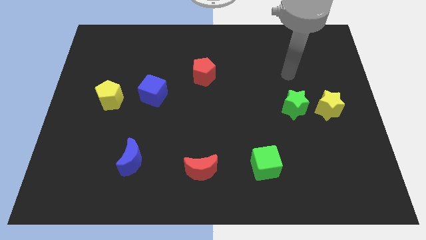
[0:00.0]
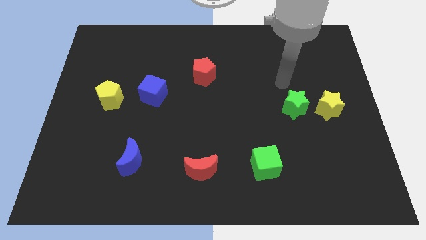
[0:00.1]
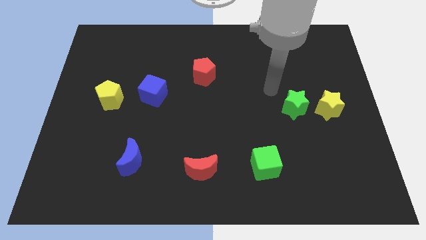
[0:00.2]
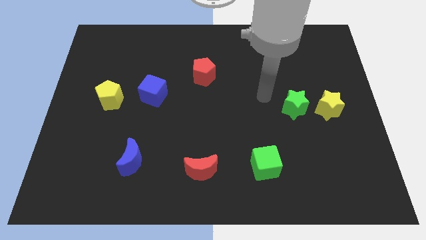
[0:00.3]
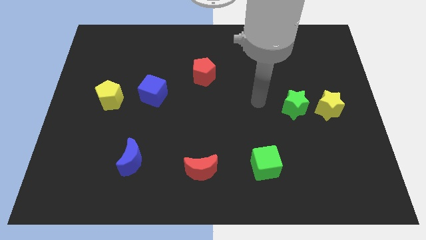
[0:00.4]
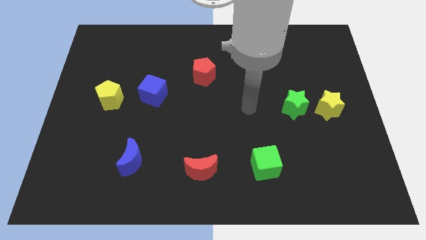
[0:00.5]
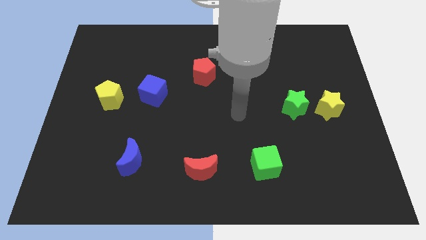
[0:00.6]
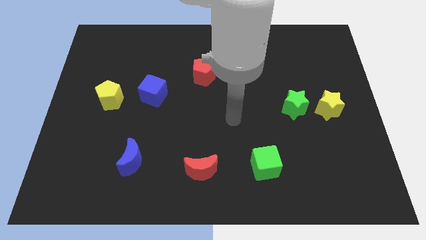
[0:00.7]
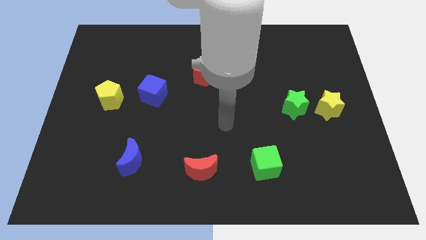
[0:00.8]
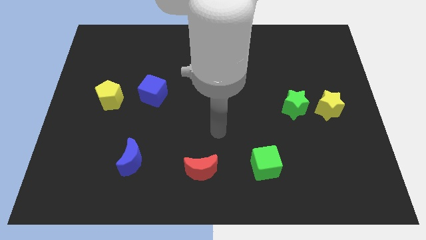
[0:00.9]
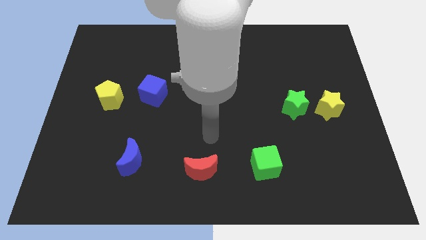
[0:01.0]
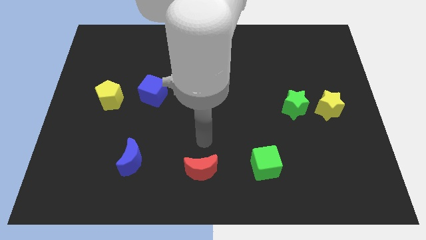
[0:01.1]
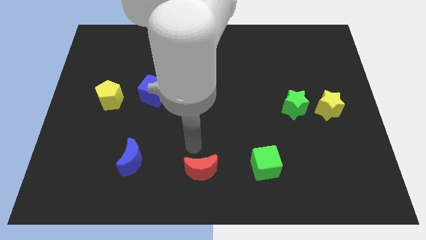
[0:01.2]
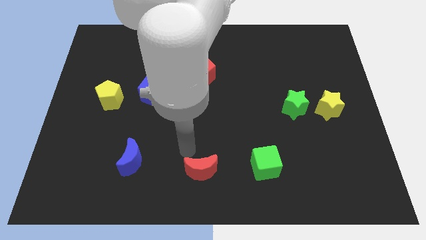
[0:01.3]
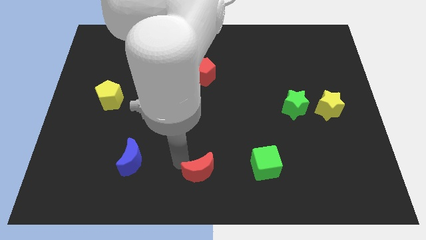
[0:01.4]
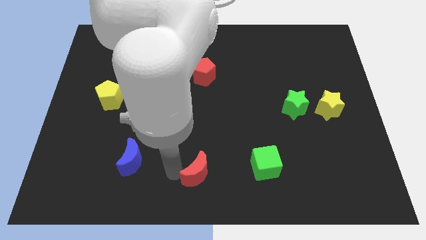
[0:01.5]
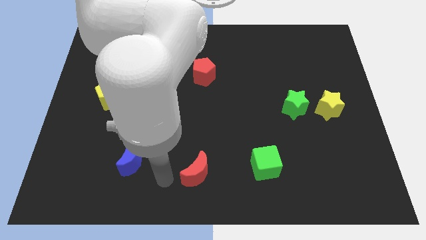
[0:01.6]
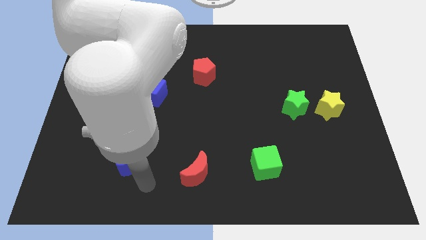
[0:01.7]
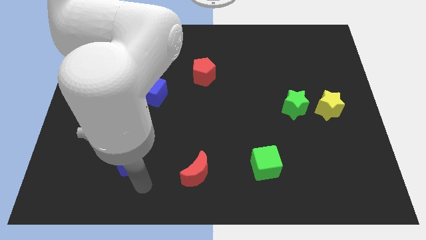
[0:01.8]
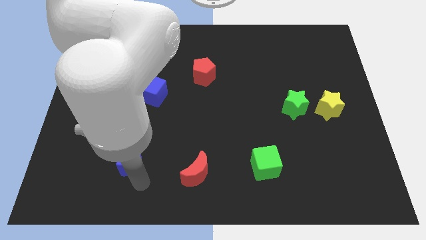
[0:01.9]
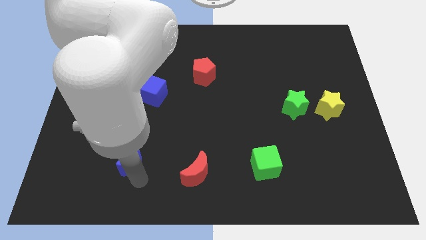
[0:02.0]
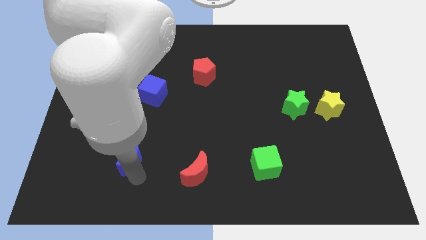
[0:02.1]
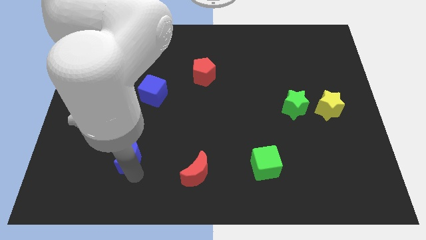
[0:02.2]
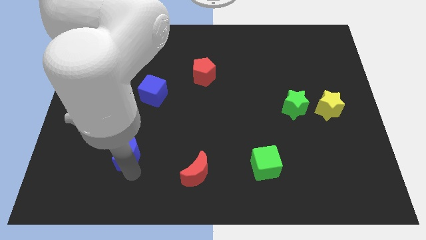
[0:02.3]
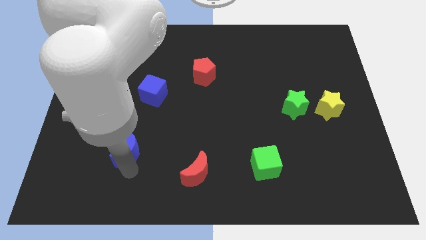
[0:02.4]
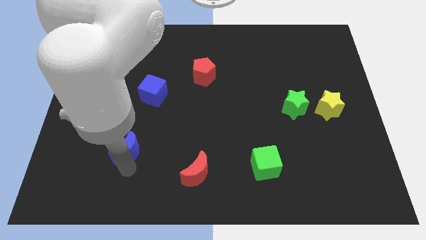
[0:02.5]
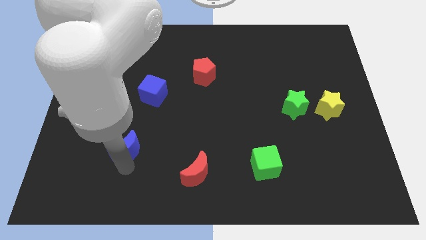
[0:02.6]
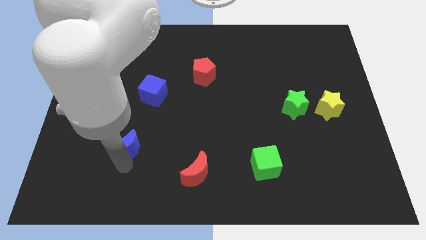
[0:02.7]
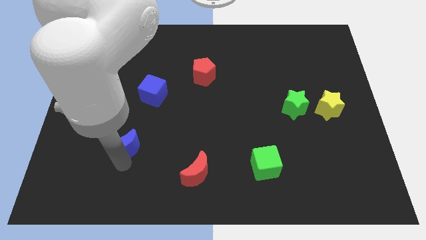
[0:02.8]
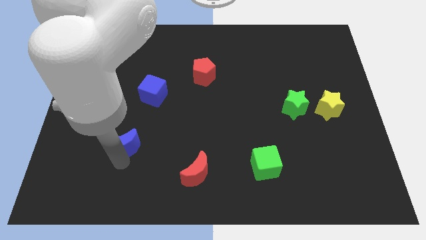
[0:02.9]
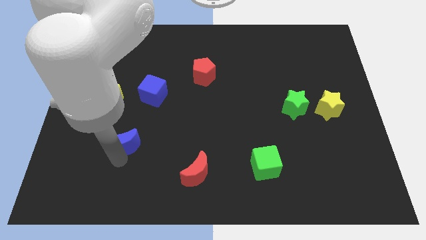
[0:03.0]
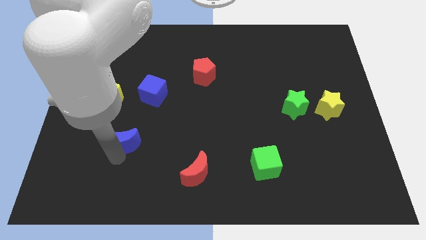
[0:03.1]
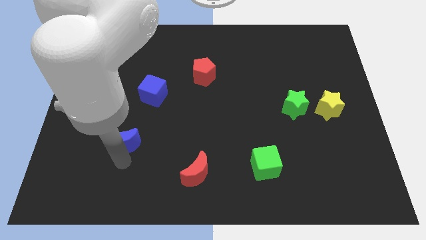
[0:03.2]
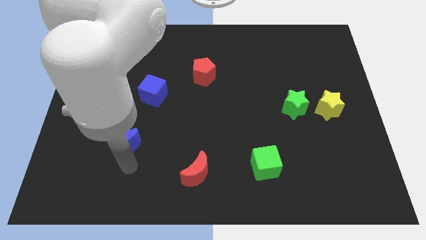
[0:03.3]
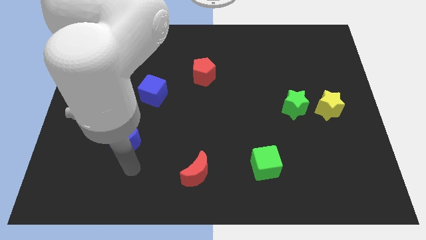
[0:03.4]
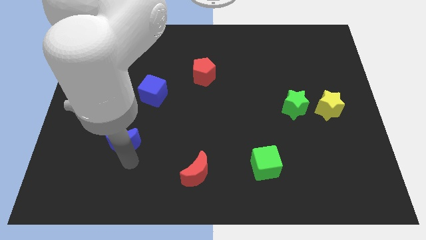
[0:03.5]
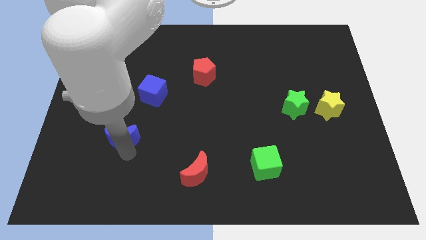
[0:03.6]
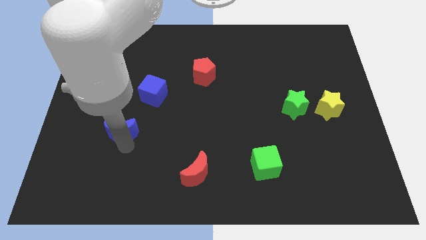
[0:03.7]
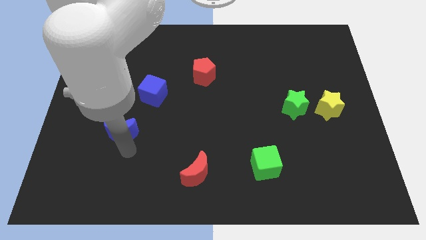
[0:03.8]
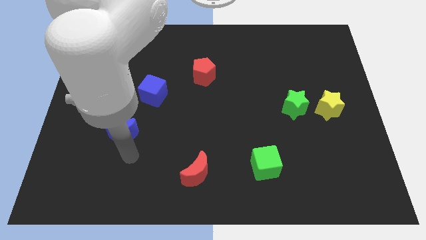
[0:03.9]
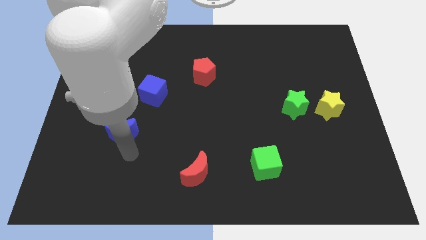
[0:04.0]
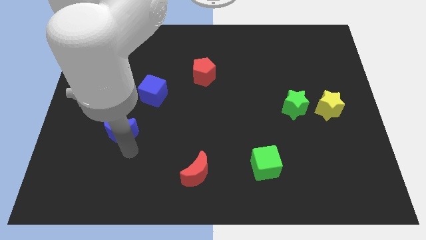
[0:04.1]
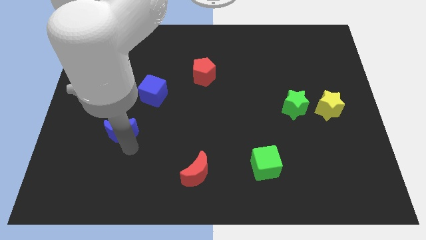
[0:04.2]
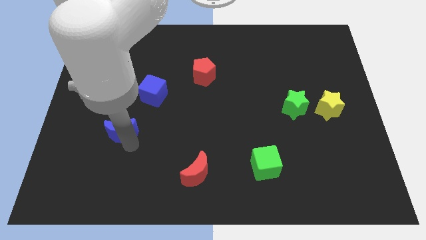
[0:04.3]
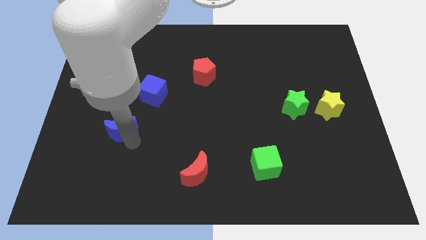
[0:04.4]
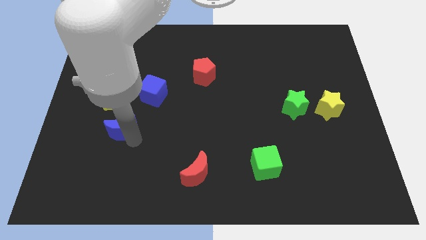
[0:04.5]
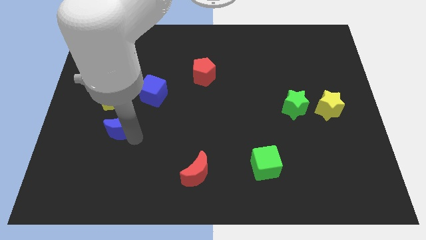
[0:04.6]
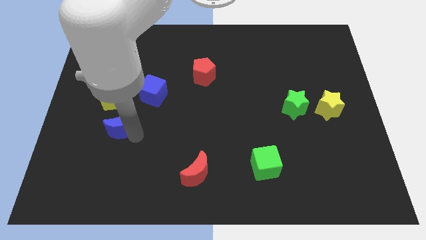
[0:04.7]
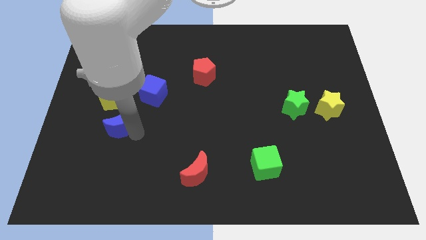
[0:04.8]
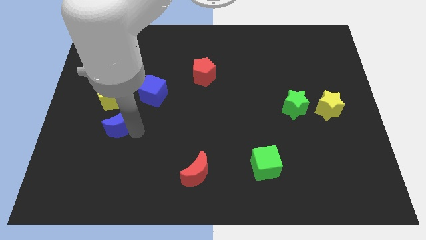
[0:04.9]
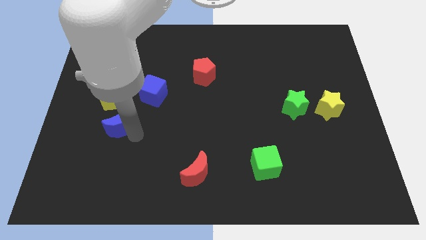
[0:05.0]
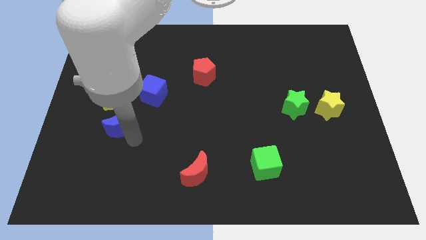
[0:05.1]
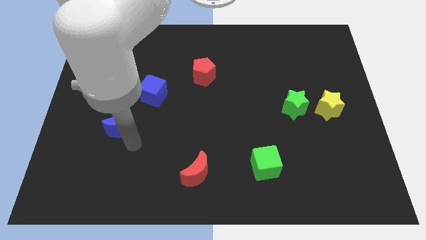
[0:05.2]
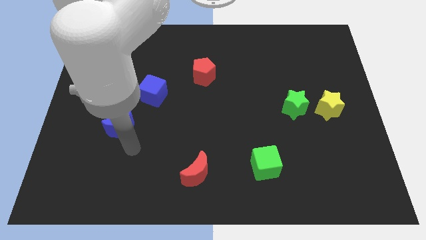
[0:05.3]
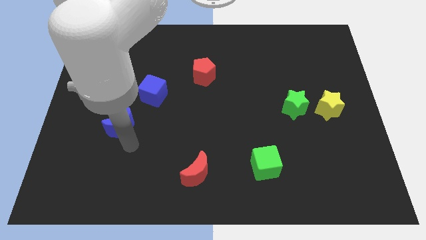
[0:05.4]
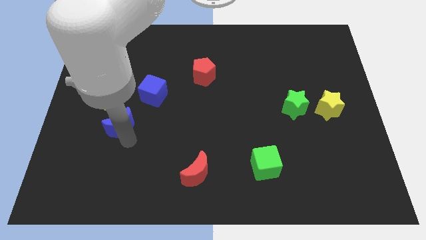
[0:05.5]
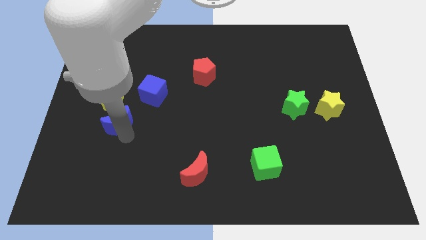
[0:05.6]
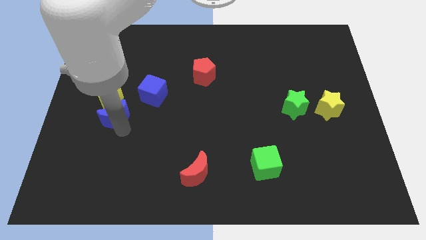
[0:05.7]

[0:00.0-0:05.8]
slide the blue moon to the yellow pentagon

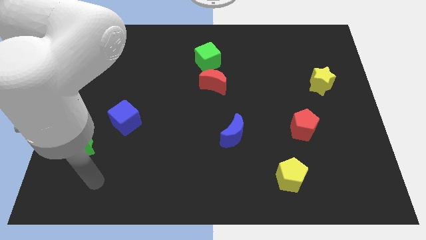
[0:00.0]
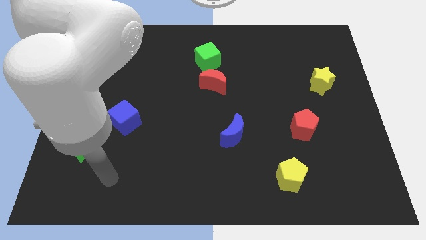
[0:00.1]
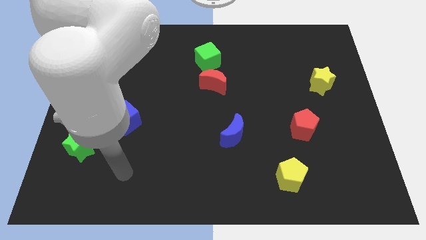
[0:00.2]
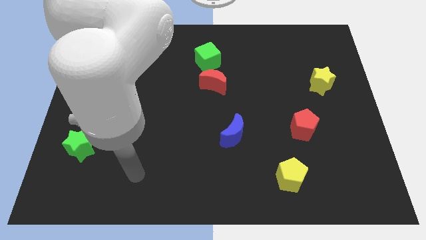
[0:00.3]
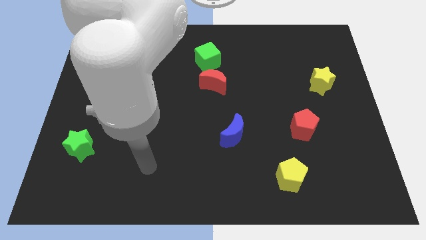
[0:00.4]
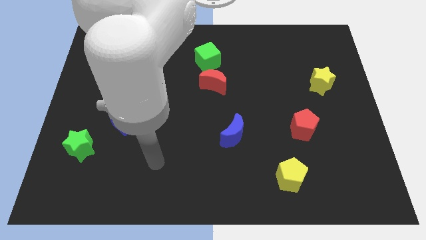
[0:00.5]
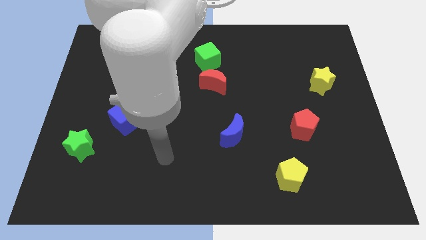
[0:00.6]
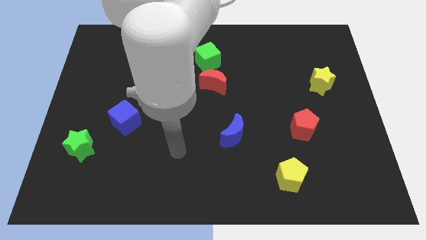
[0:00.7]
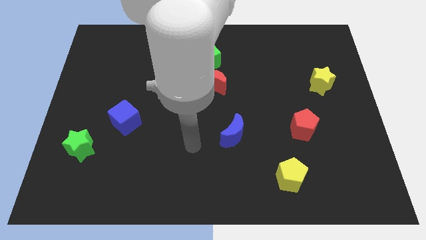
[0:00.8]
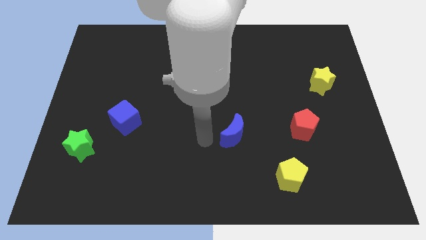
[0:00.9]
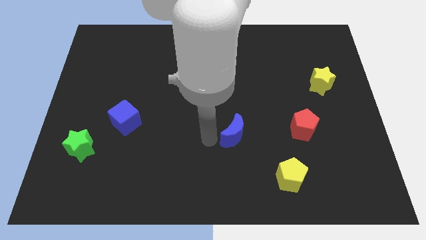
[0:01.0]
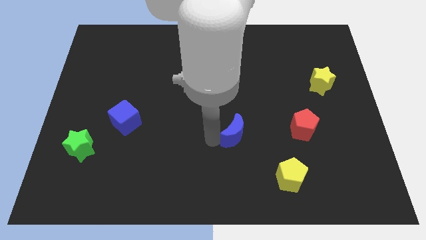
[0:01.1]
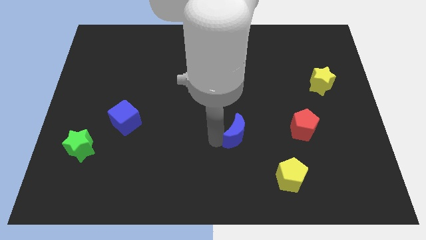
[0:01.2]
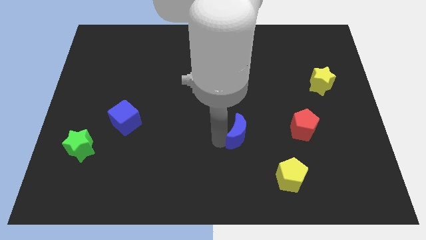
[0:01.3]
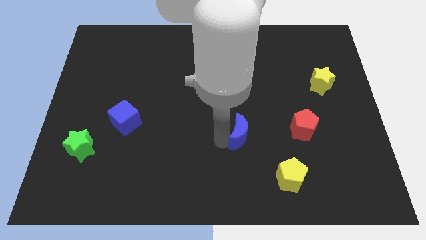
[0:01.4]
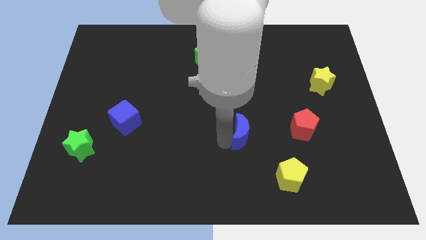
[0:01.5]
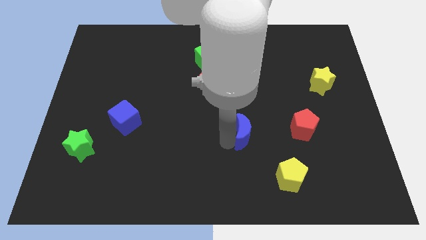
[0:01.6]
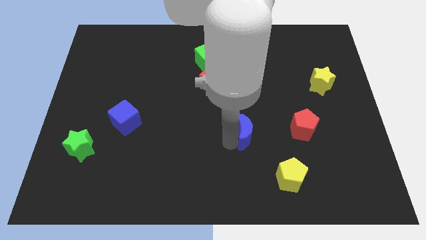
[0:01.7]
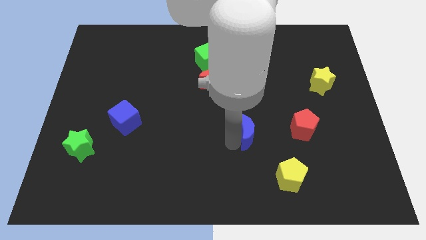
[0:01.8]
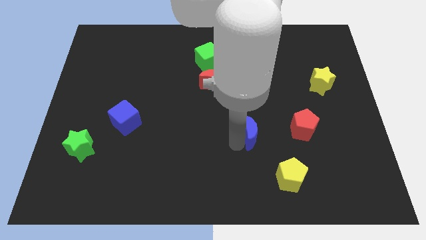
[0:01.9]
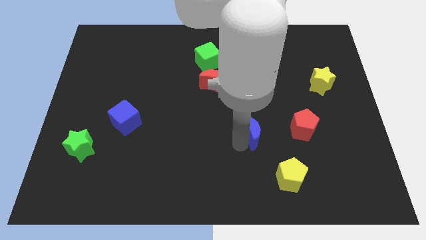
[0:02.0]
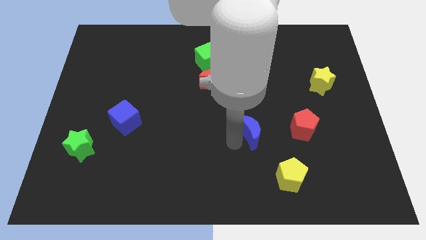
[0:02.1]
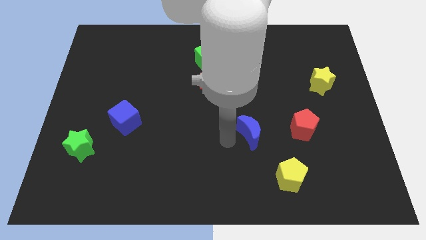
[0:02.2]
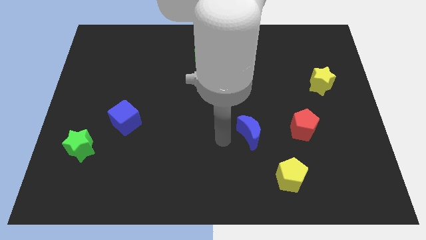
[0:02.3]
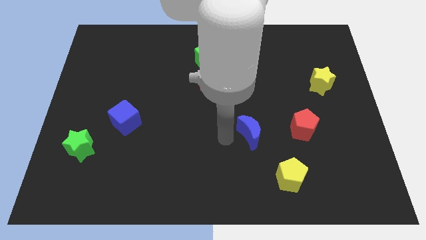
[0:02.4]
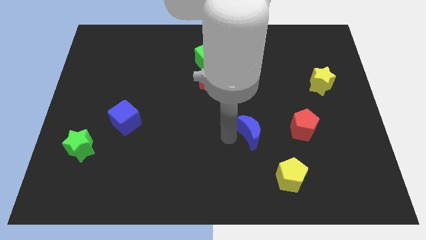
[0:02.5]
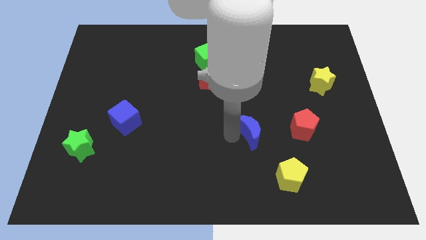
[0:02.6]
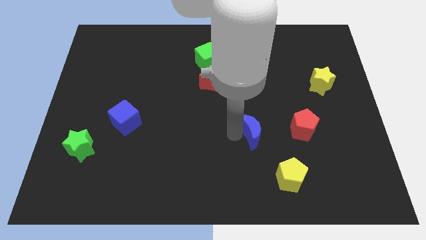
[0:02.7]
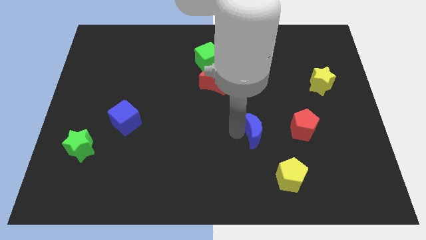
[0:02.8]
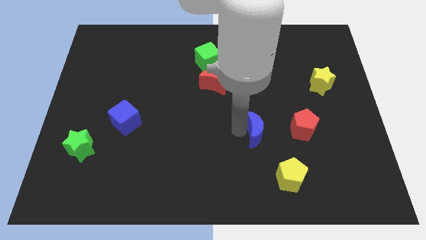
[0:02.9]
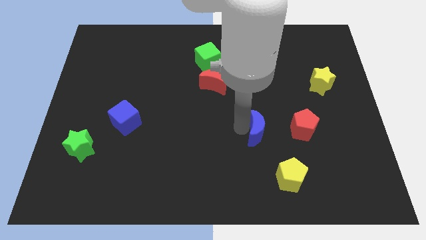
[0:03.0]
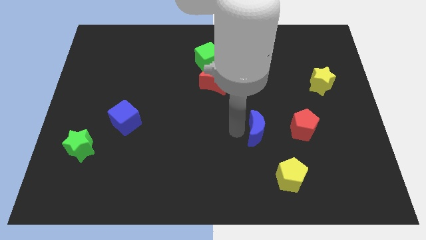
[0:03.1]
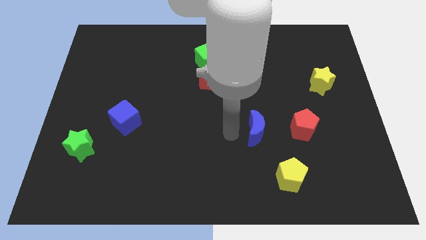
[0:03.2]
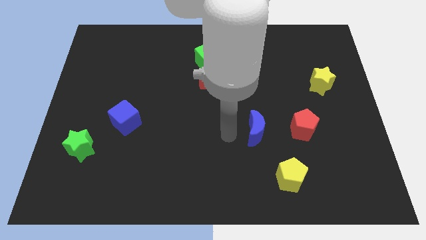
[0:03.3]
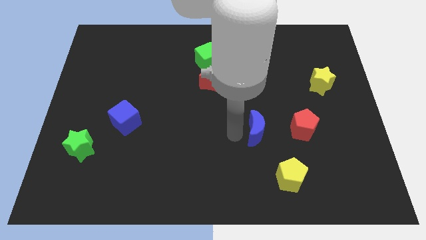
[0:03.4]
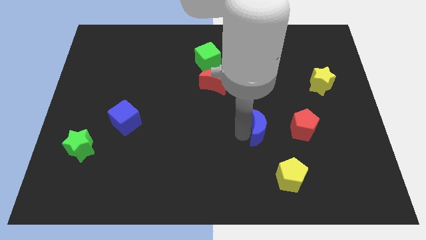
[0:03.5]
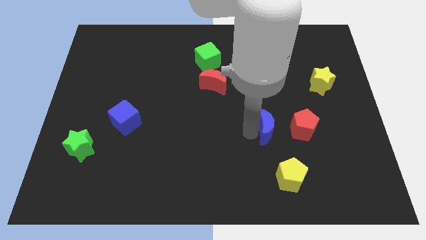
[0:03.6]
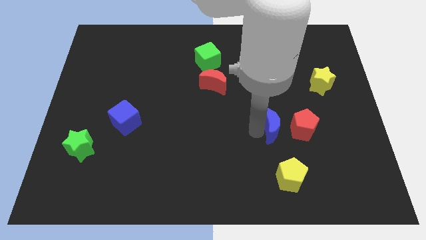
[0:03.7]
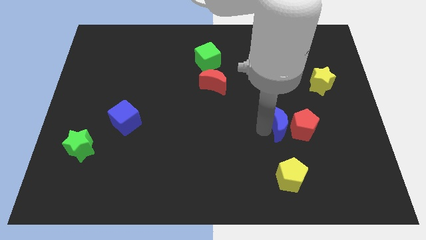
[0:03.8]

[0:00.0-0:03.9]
slide the blue moon towards the red pentagon
